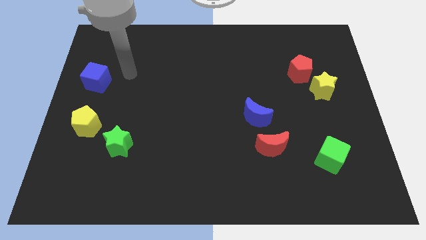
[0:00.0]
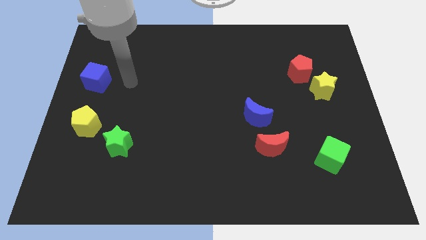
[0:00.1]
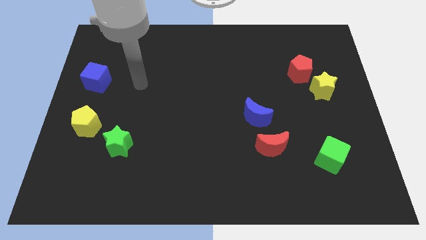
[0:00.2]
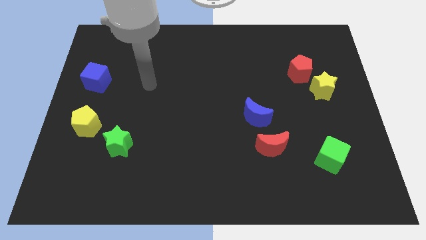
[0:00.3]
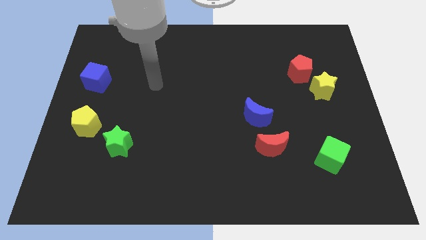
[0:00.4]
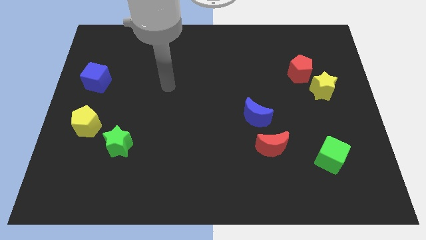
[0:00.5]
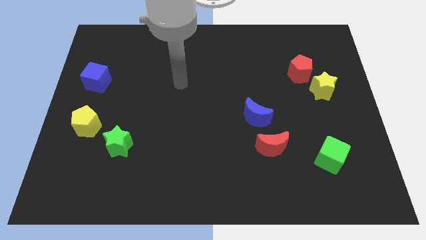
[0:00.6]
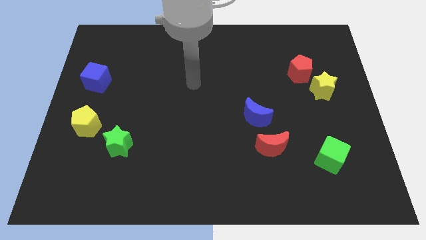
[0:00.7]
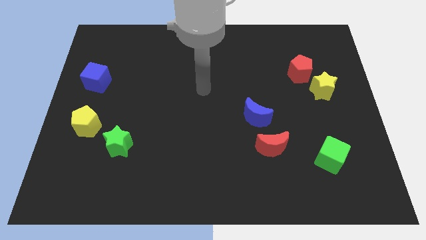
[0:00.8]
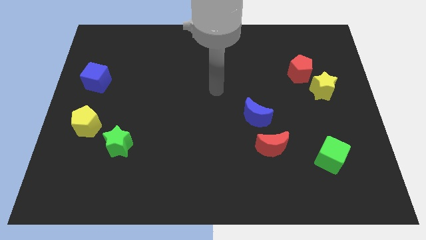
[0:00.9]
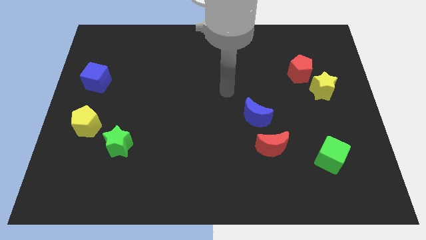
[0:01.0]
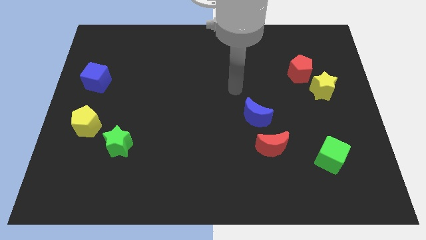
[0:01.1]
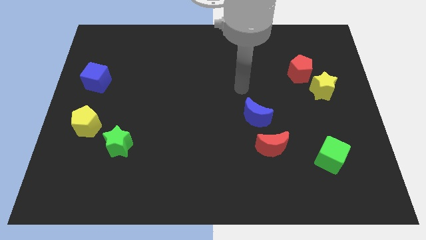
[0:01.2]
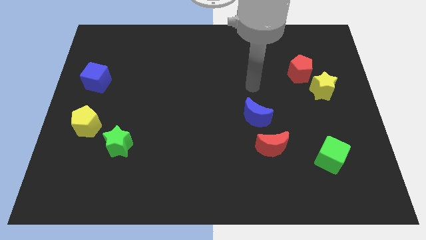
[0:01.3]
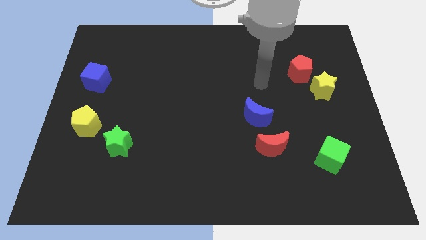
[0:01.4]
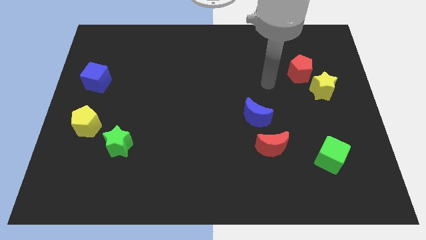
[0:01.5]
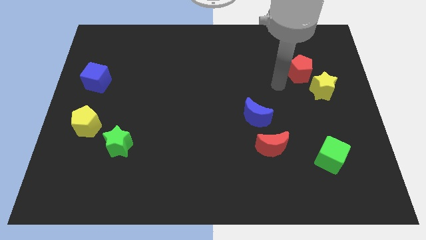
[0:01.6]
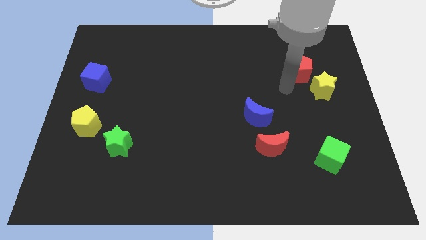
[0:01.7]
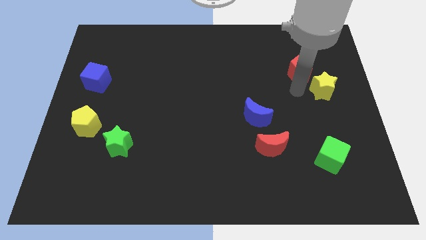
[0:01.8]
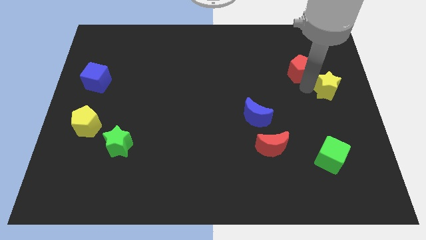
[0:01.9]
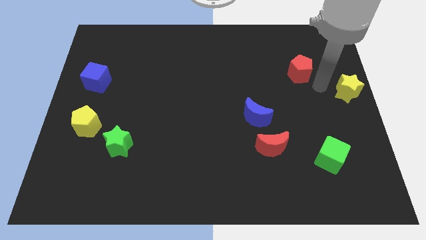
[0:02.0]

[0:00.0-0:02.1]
separate the red pentagon from the yellow star

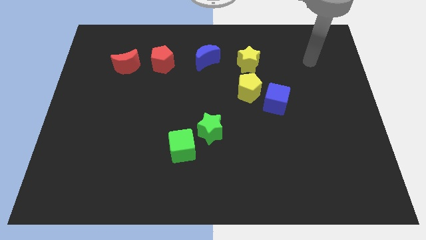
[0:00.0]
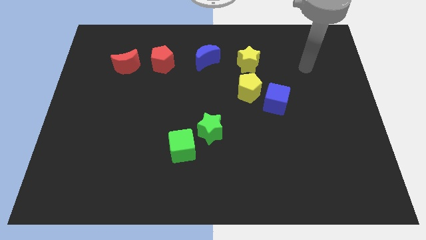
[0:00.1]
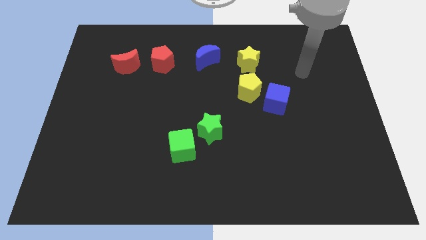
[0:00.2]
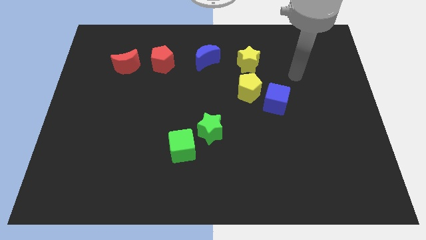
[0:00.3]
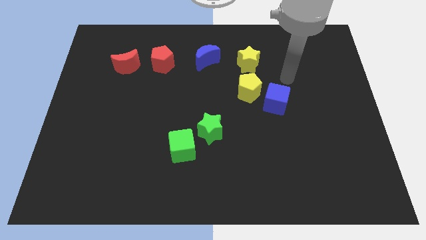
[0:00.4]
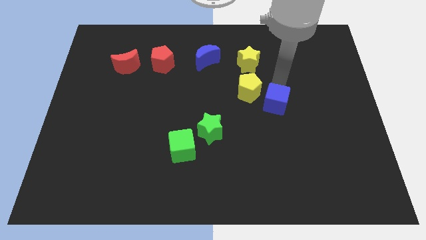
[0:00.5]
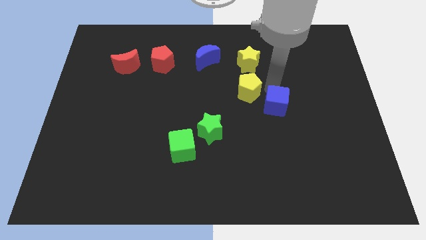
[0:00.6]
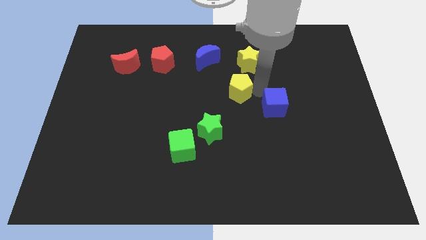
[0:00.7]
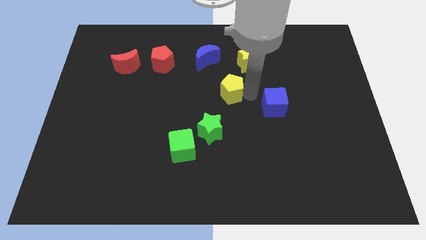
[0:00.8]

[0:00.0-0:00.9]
pull the blue cube apart from the yellow pentagon

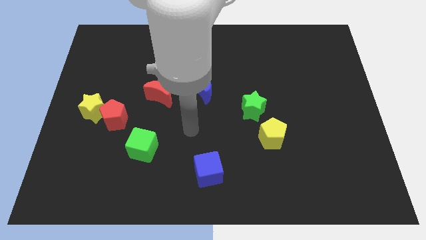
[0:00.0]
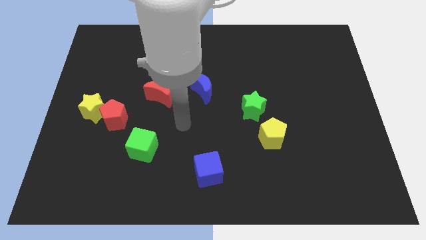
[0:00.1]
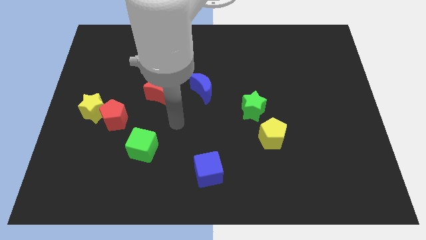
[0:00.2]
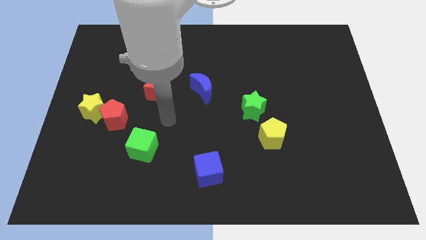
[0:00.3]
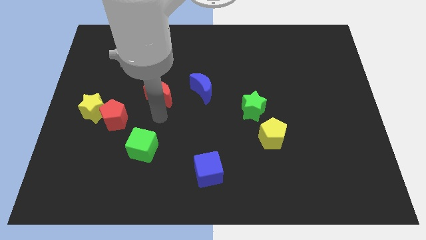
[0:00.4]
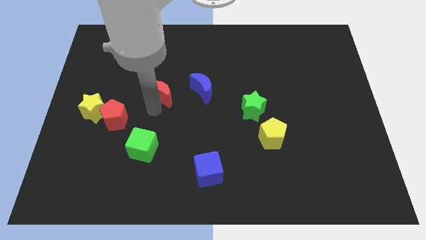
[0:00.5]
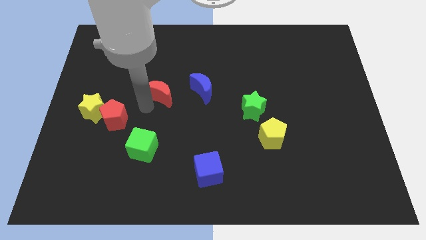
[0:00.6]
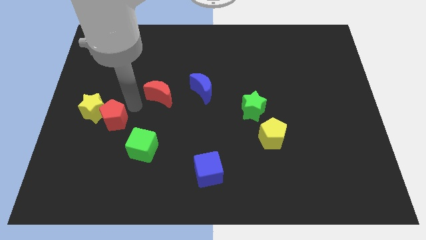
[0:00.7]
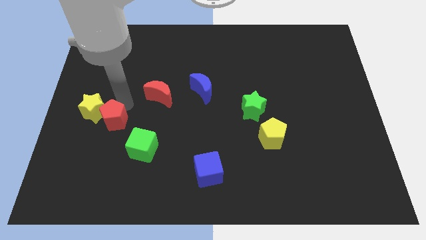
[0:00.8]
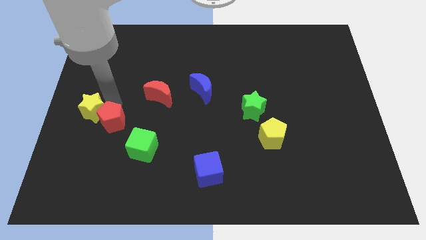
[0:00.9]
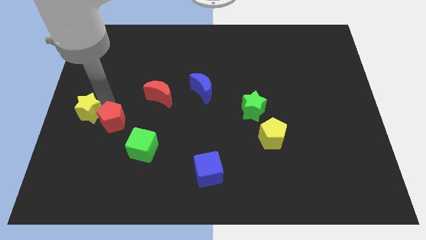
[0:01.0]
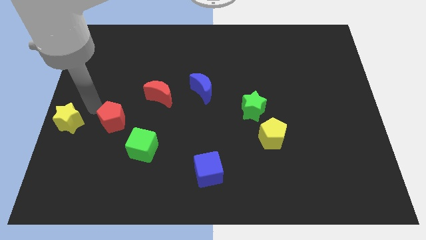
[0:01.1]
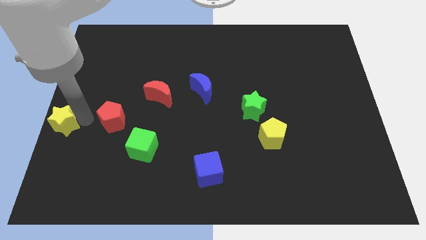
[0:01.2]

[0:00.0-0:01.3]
pull the red pentagon apart from the yellow star

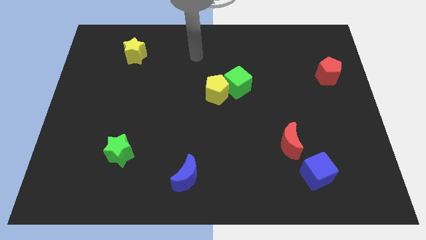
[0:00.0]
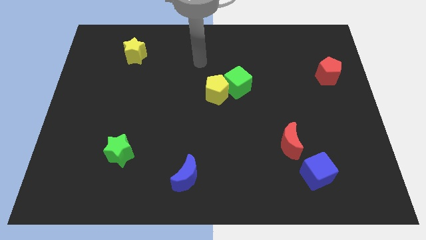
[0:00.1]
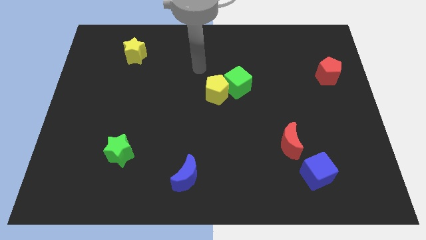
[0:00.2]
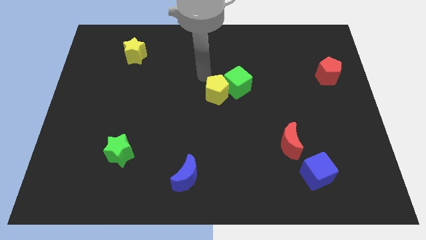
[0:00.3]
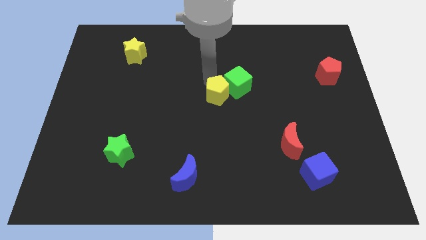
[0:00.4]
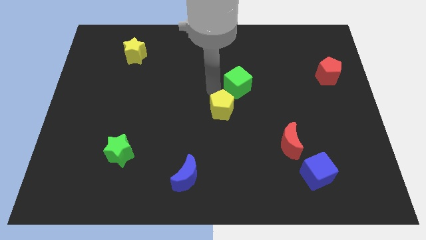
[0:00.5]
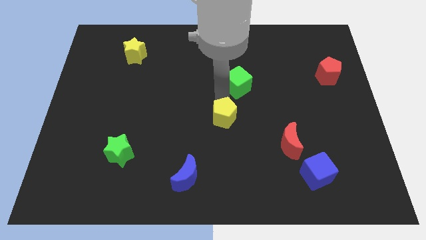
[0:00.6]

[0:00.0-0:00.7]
pull the green cube apart from the yellow pentagon

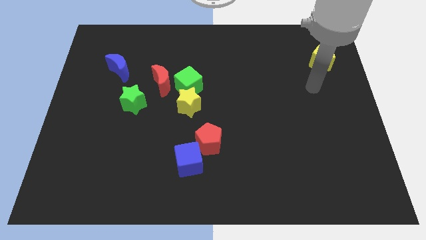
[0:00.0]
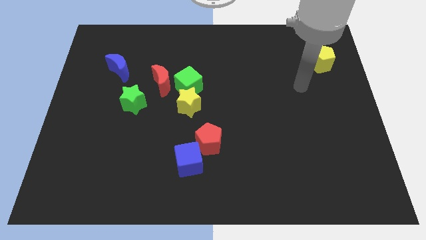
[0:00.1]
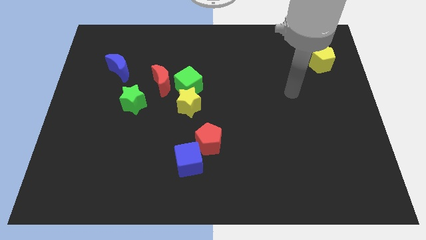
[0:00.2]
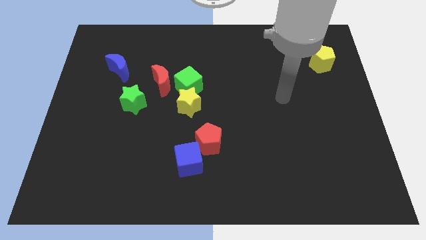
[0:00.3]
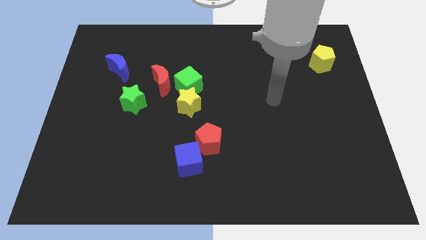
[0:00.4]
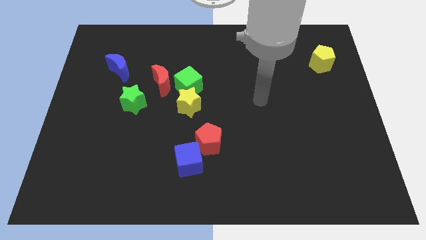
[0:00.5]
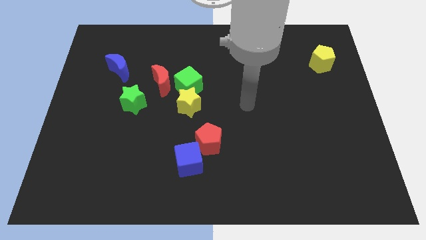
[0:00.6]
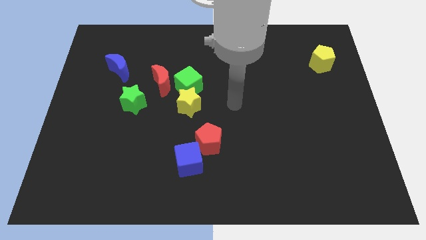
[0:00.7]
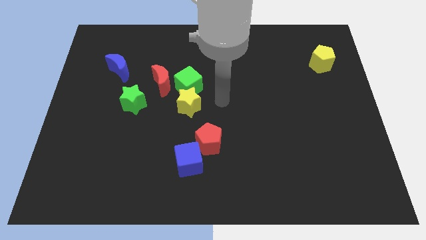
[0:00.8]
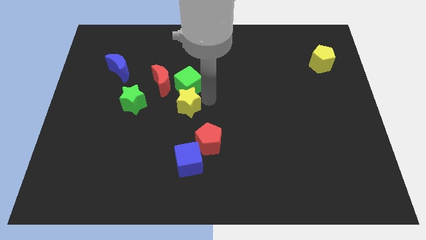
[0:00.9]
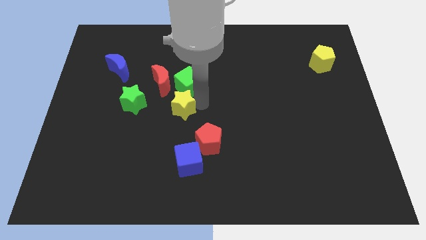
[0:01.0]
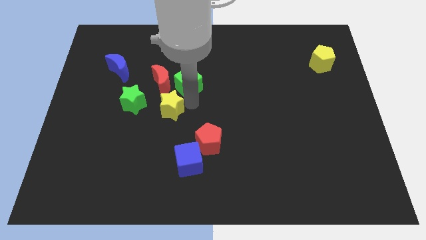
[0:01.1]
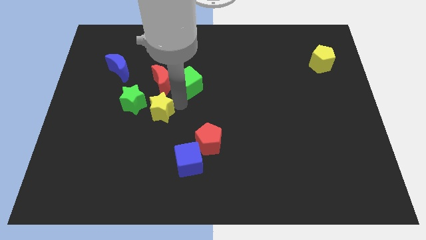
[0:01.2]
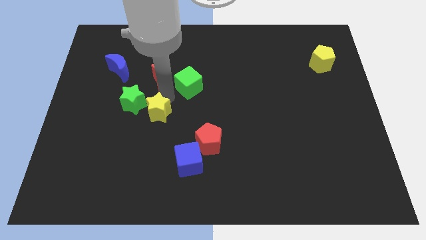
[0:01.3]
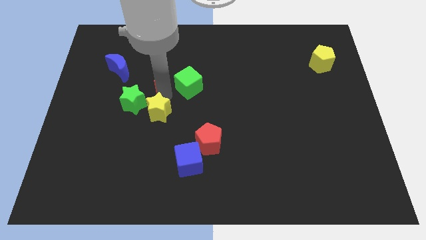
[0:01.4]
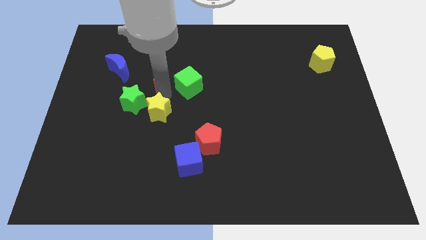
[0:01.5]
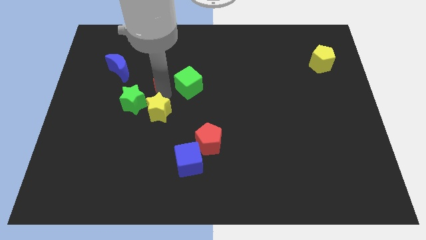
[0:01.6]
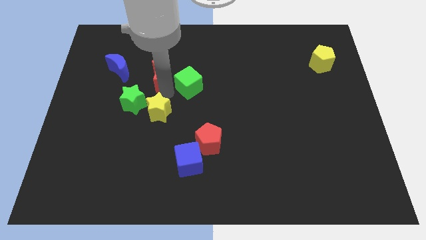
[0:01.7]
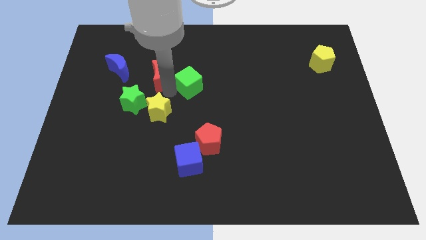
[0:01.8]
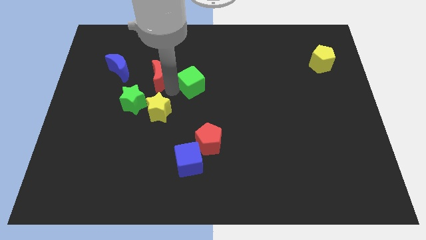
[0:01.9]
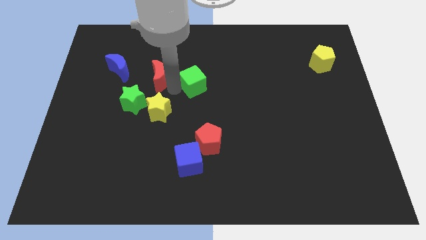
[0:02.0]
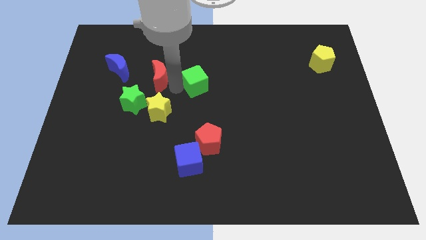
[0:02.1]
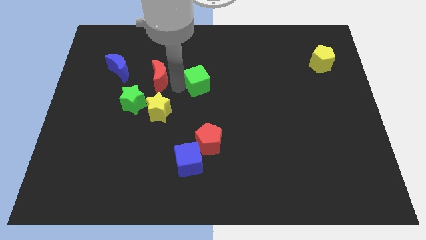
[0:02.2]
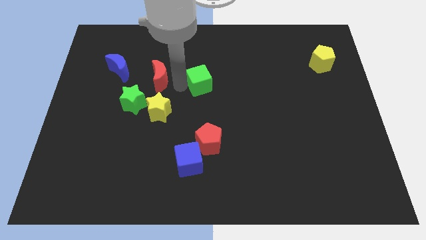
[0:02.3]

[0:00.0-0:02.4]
separate the green cube from the yellow star and red moon

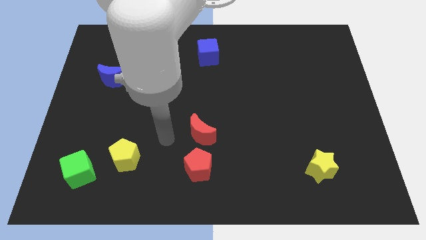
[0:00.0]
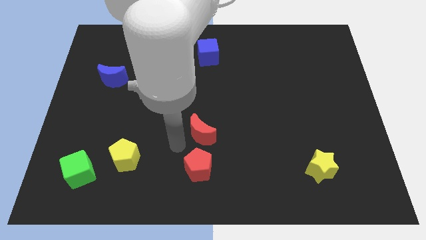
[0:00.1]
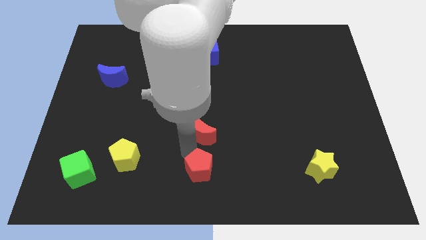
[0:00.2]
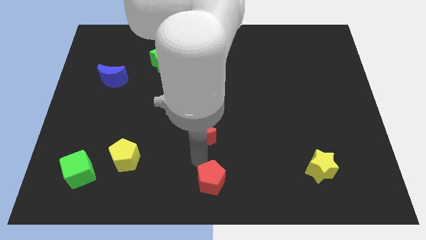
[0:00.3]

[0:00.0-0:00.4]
move the red moon away from the red pentagon

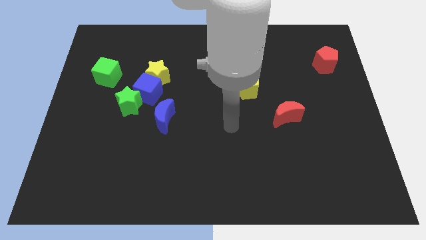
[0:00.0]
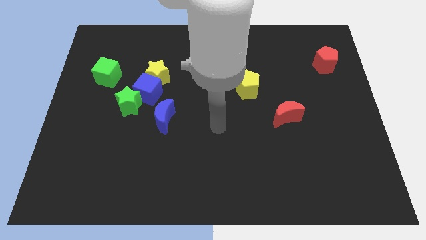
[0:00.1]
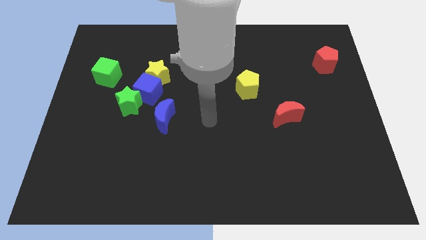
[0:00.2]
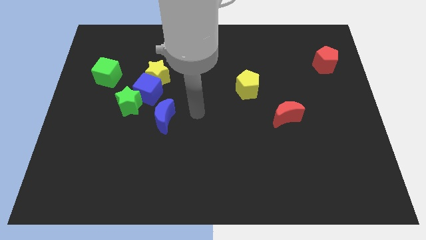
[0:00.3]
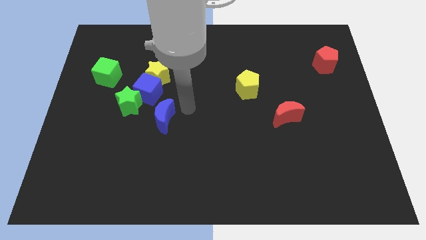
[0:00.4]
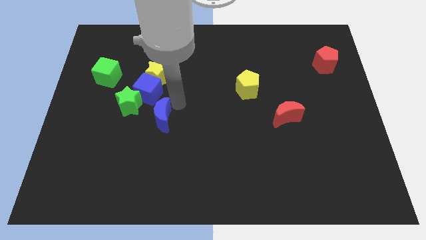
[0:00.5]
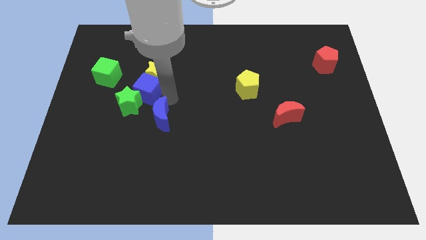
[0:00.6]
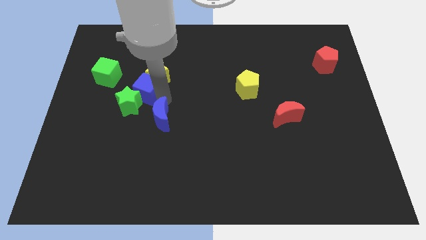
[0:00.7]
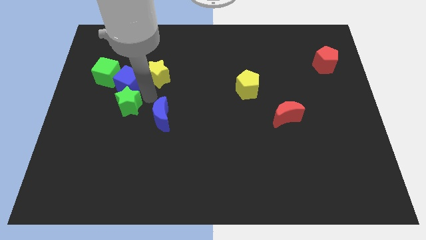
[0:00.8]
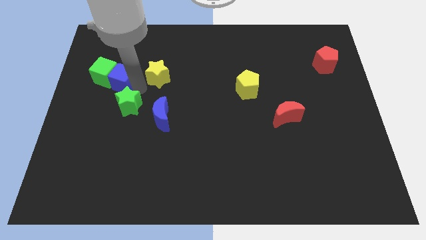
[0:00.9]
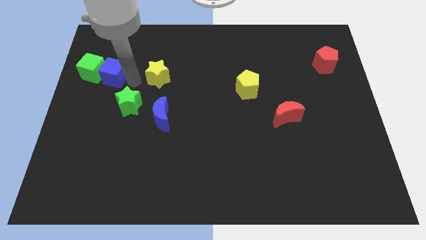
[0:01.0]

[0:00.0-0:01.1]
pull the yellow star apart from the blue cube

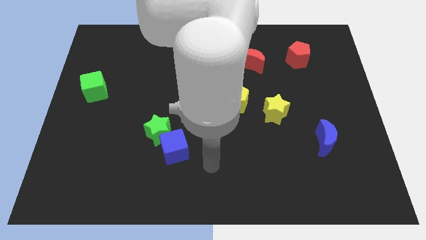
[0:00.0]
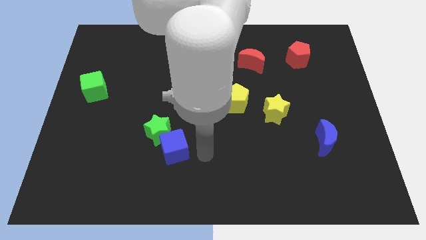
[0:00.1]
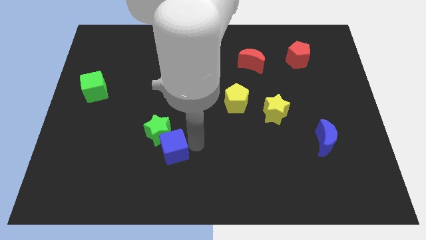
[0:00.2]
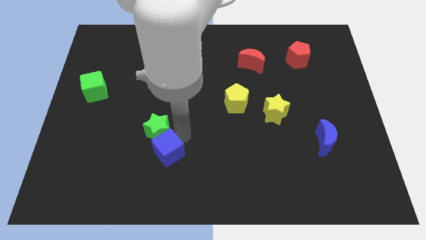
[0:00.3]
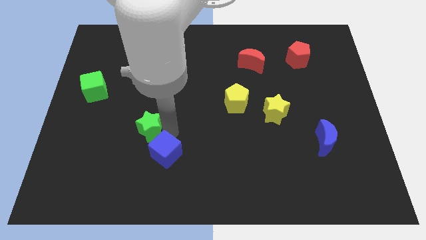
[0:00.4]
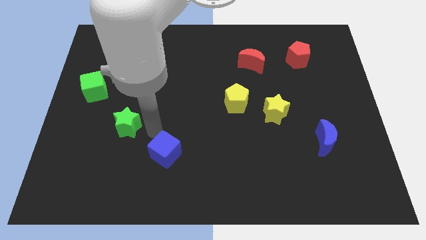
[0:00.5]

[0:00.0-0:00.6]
move the blue cube away from the green star
